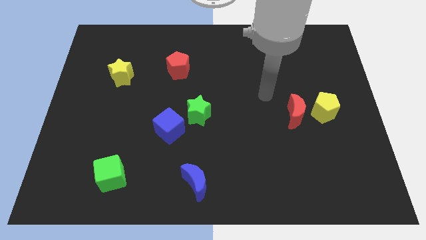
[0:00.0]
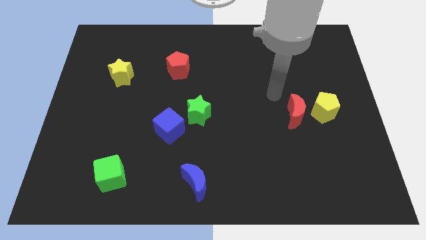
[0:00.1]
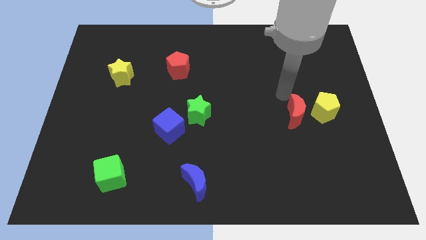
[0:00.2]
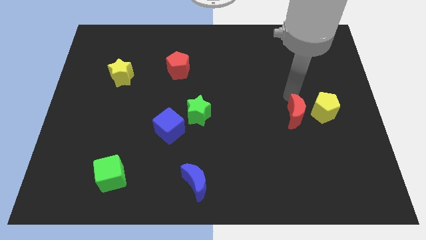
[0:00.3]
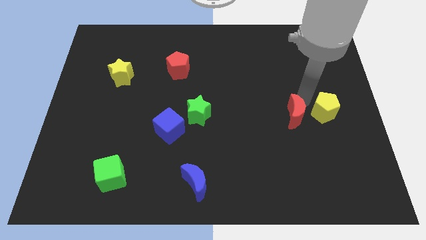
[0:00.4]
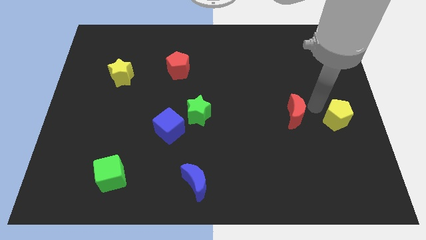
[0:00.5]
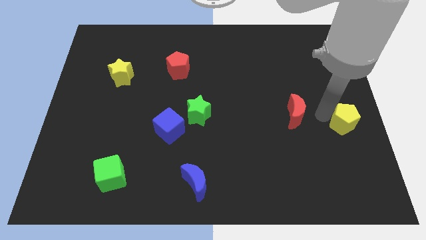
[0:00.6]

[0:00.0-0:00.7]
pull the red moon apart from the yellow pentagon

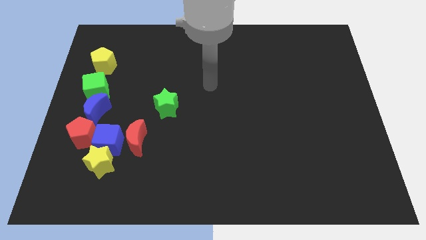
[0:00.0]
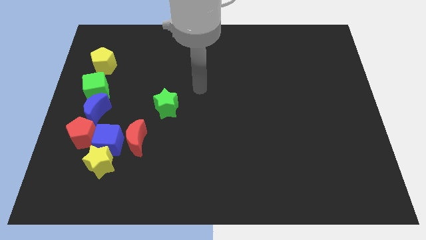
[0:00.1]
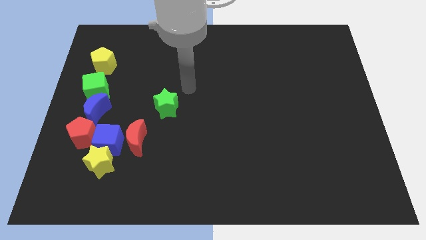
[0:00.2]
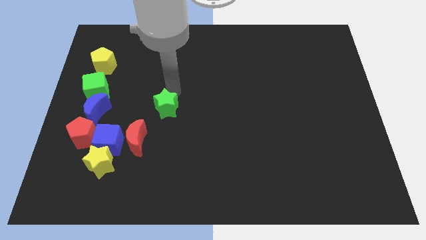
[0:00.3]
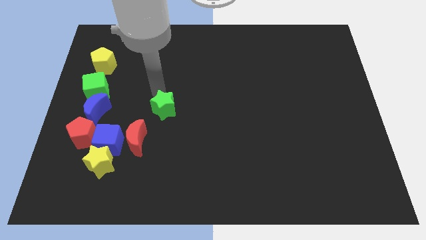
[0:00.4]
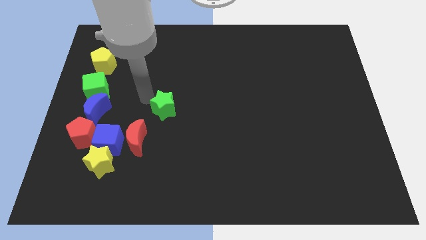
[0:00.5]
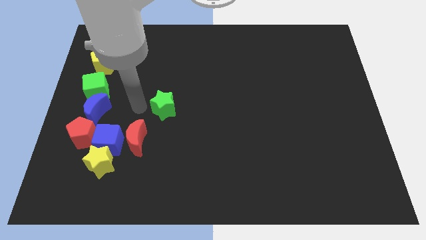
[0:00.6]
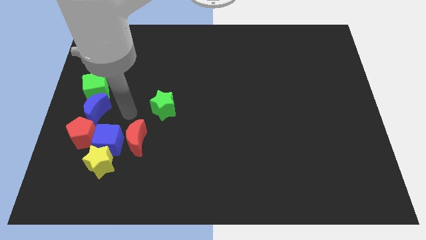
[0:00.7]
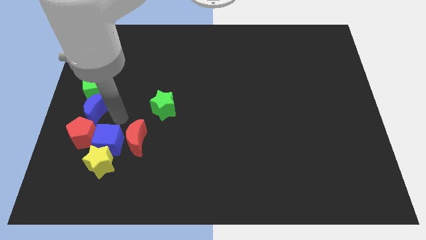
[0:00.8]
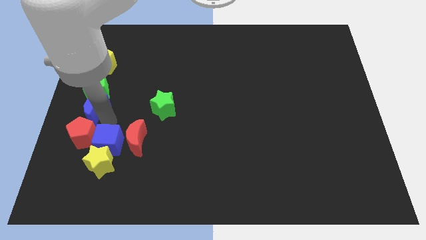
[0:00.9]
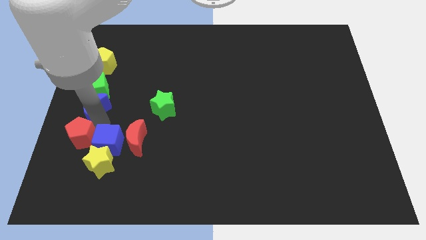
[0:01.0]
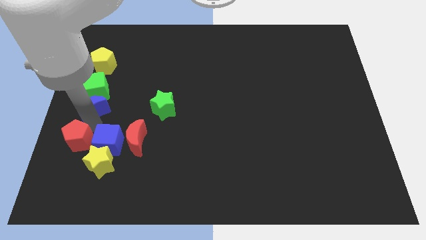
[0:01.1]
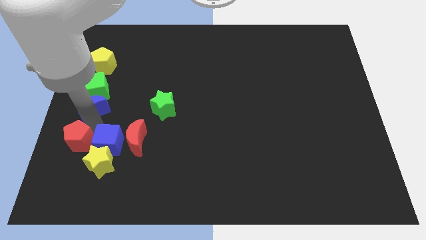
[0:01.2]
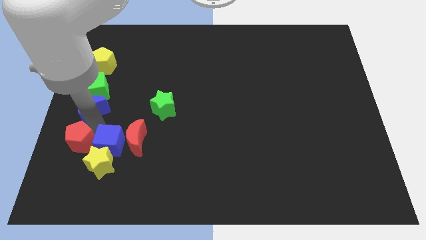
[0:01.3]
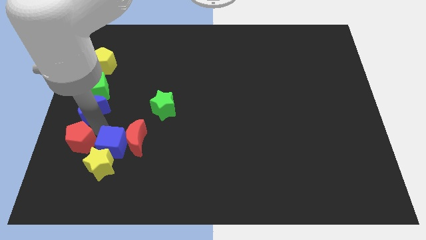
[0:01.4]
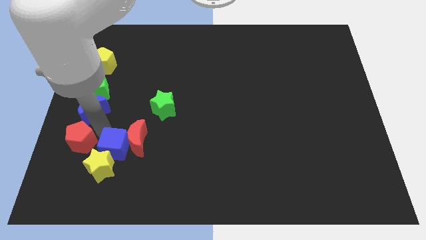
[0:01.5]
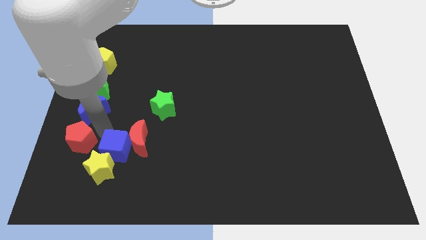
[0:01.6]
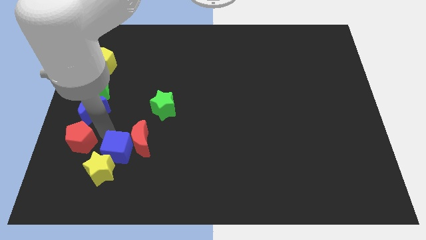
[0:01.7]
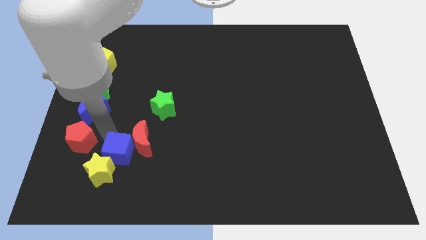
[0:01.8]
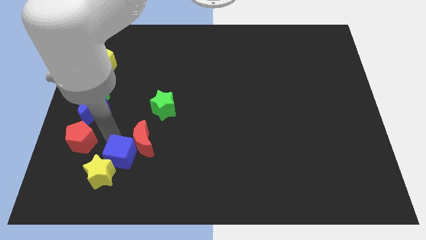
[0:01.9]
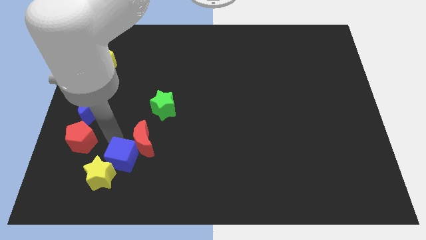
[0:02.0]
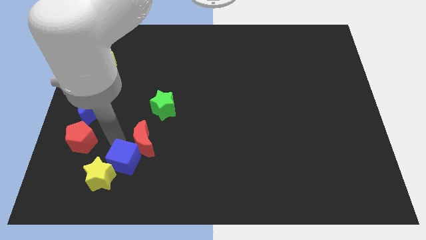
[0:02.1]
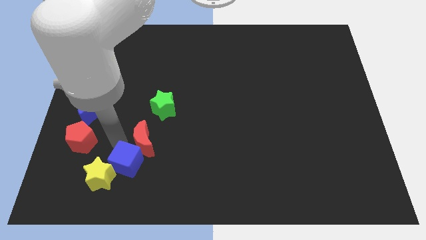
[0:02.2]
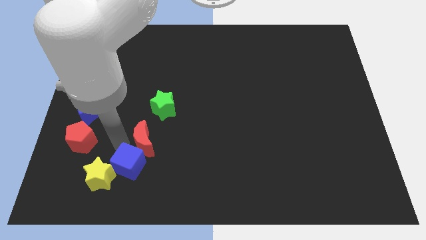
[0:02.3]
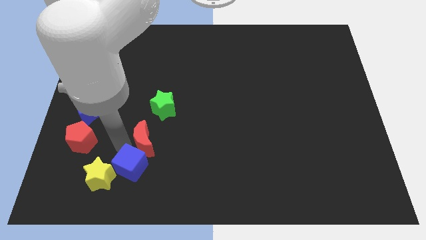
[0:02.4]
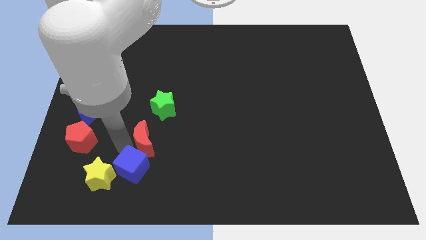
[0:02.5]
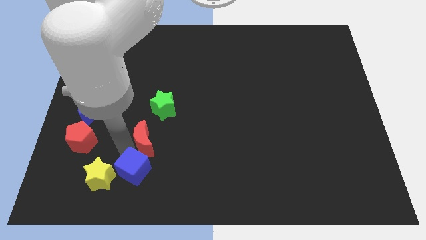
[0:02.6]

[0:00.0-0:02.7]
pull the blue cube apart from the clump

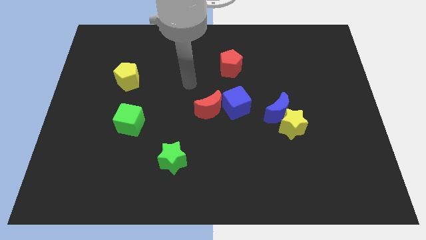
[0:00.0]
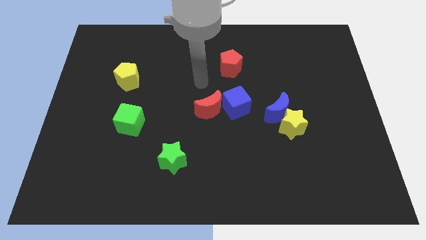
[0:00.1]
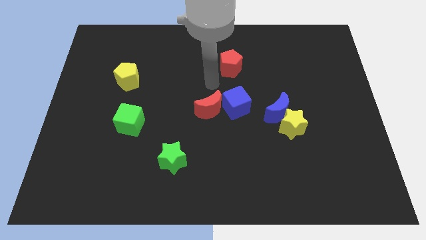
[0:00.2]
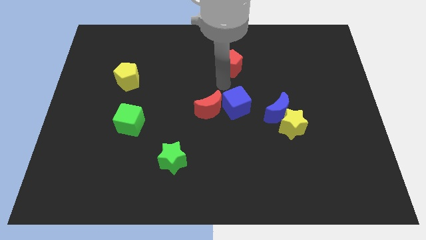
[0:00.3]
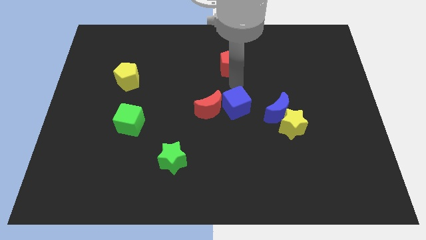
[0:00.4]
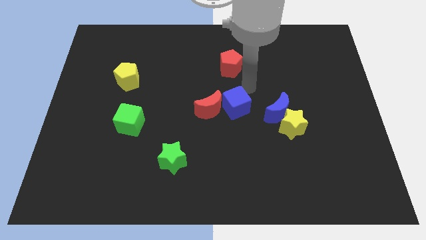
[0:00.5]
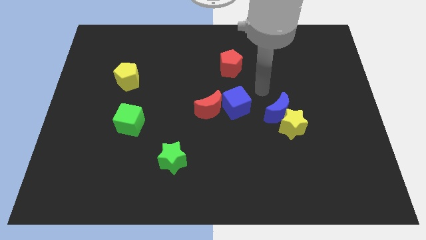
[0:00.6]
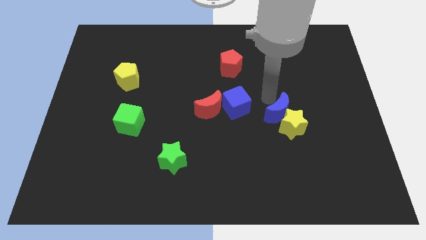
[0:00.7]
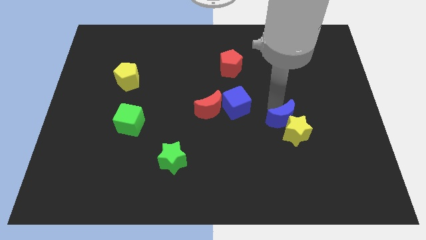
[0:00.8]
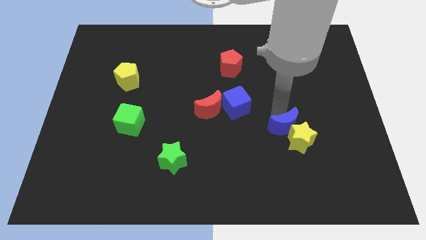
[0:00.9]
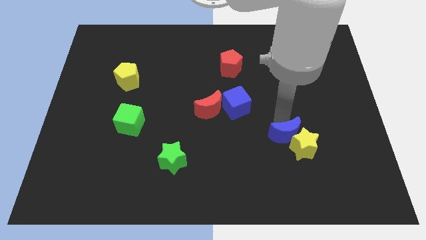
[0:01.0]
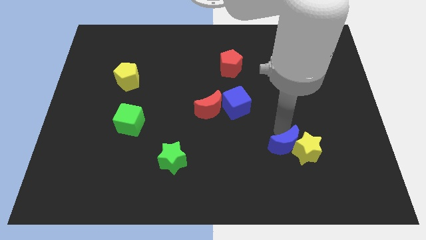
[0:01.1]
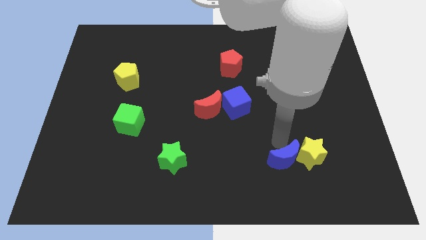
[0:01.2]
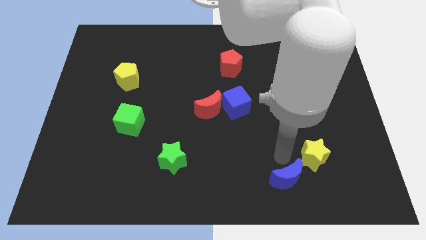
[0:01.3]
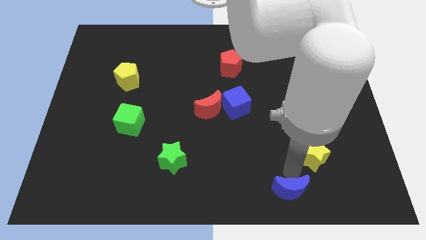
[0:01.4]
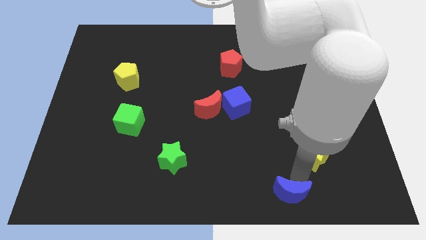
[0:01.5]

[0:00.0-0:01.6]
move the yellow star away from the blue moon

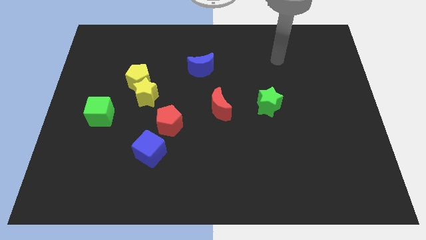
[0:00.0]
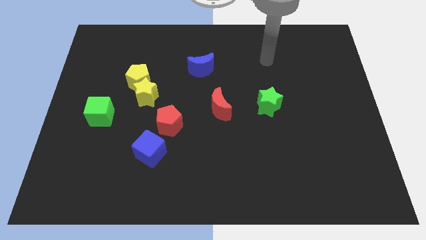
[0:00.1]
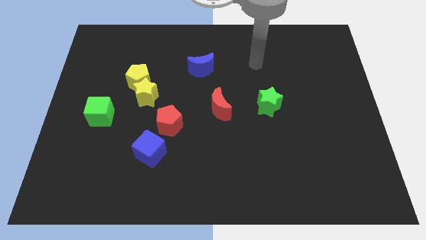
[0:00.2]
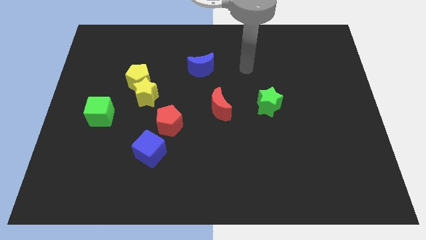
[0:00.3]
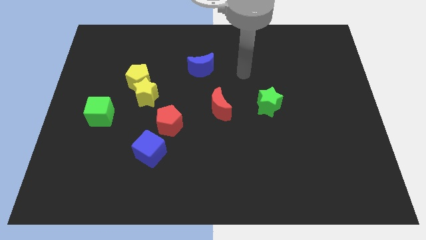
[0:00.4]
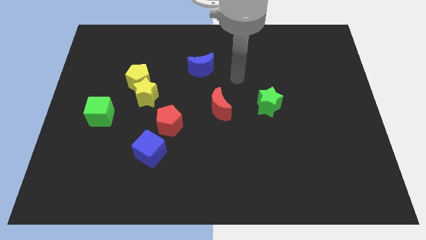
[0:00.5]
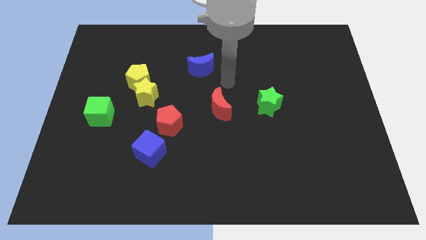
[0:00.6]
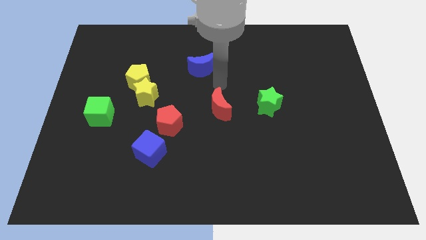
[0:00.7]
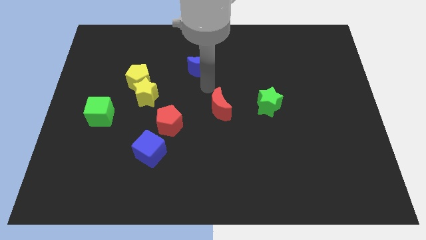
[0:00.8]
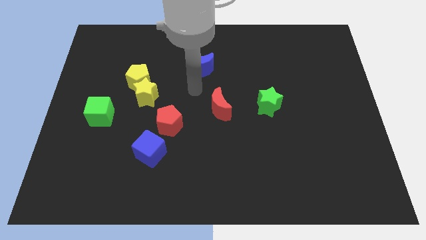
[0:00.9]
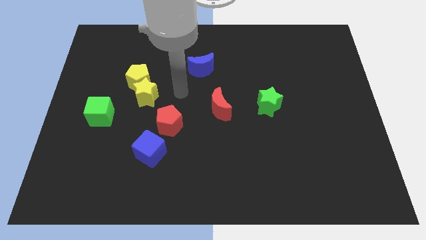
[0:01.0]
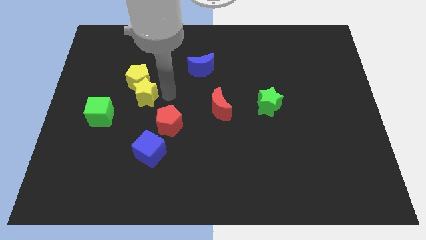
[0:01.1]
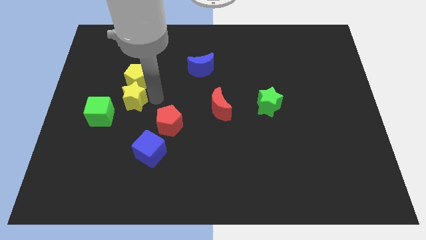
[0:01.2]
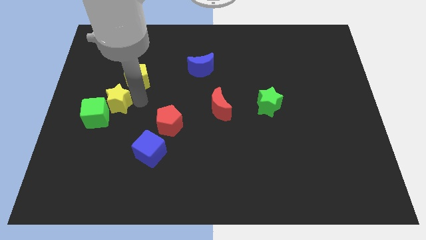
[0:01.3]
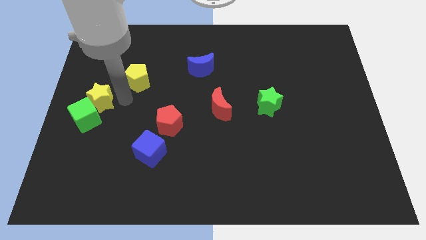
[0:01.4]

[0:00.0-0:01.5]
separate the yellow pentagon from the yellow star

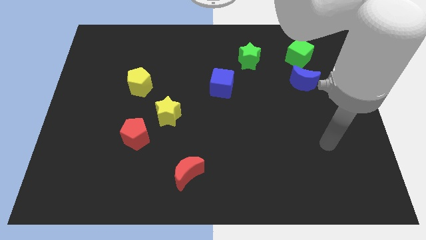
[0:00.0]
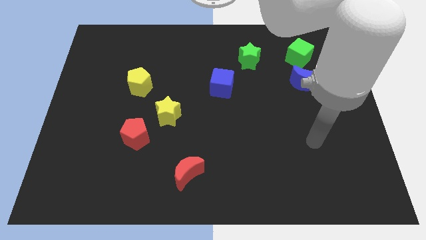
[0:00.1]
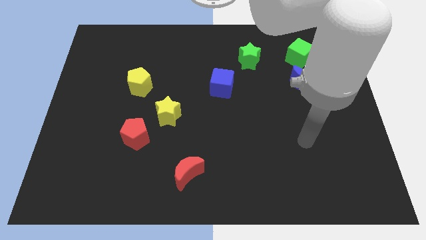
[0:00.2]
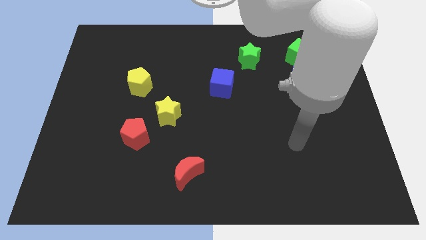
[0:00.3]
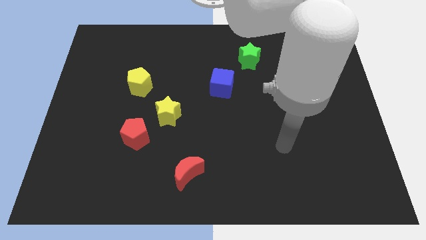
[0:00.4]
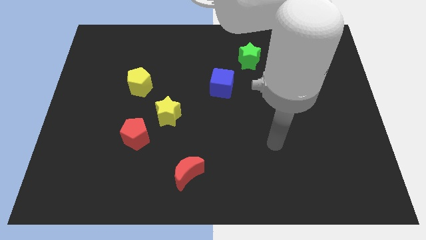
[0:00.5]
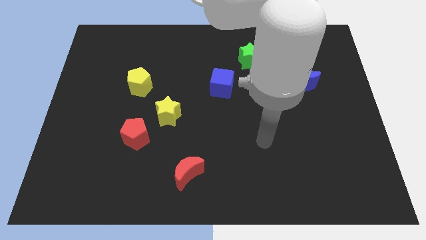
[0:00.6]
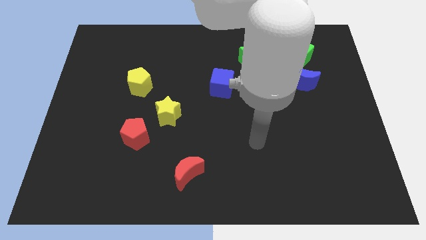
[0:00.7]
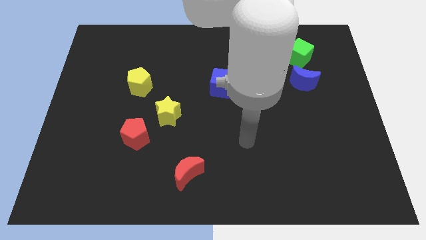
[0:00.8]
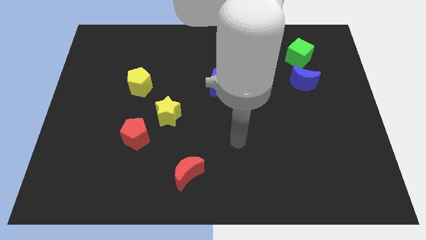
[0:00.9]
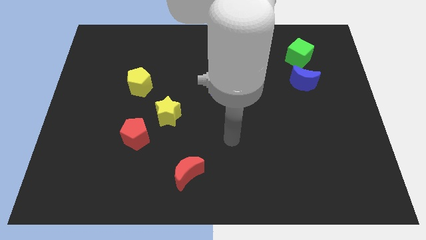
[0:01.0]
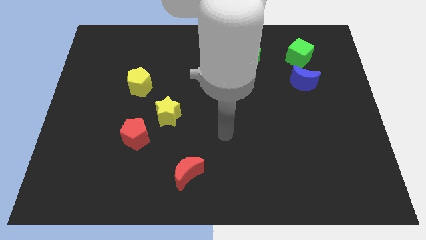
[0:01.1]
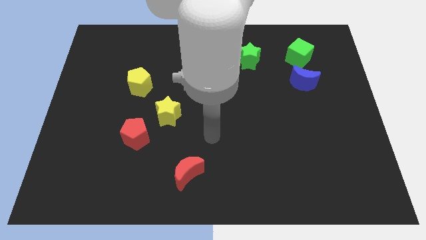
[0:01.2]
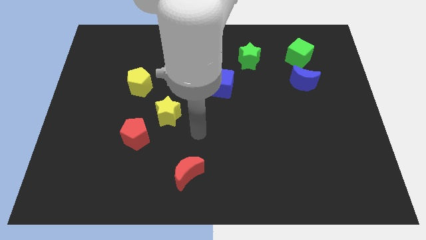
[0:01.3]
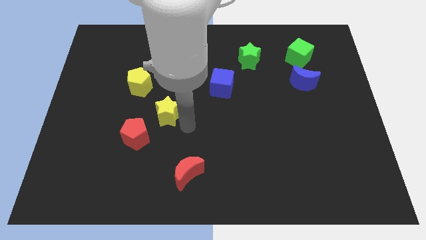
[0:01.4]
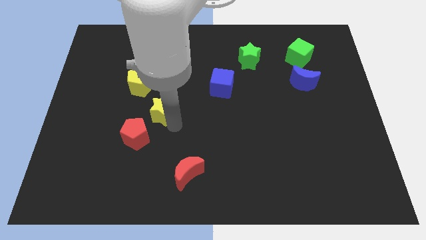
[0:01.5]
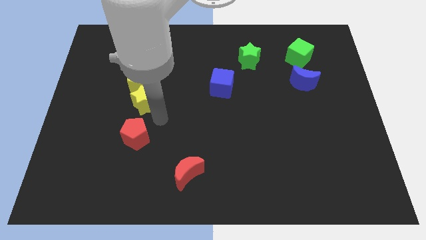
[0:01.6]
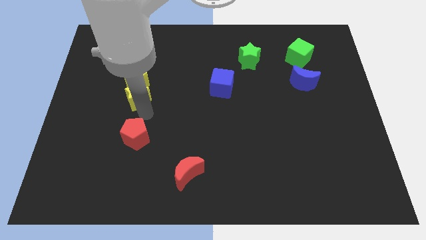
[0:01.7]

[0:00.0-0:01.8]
move the red pentagon away from the yellow star

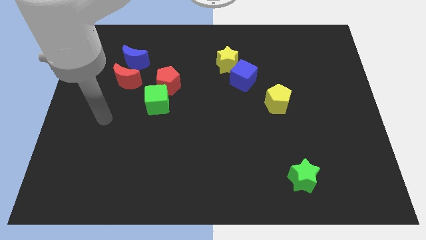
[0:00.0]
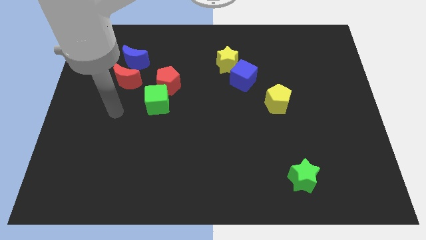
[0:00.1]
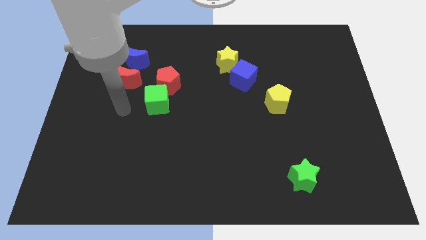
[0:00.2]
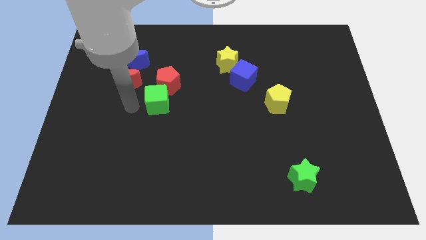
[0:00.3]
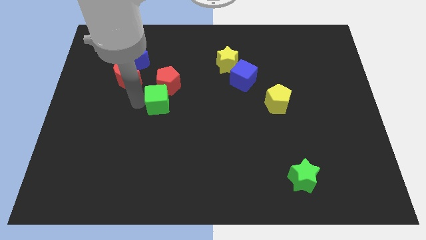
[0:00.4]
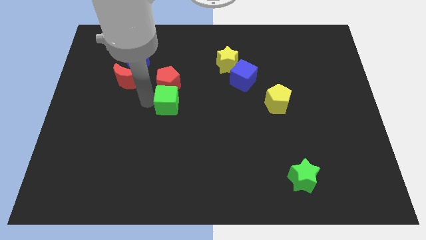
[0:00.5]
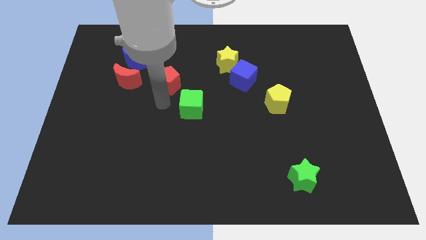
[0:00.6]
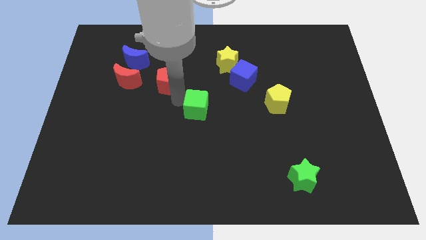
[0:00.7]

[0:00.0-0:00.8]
separate the red pentagon from the green cube

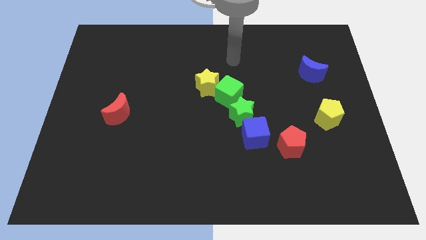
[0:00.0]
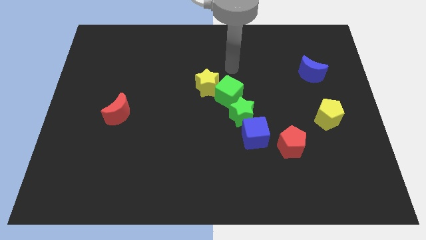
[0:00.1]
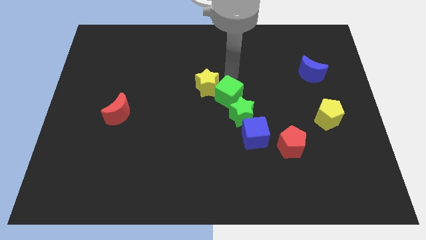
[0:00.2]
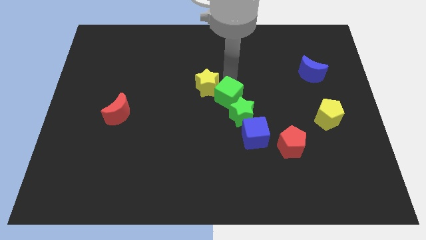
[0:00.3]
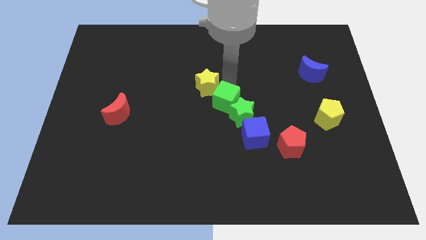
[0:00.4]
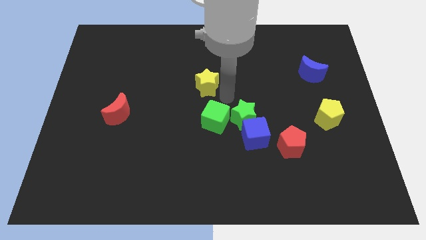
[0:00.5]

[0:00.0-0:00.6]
separate the yellow star from the green cube
